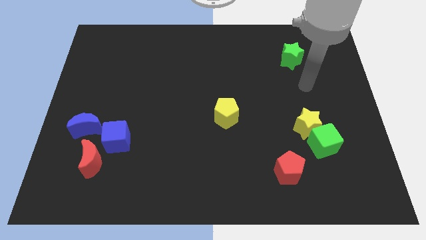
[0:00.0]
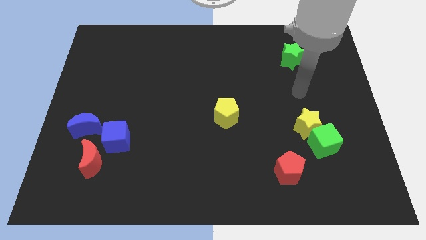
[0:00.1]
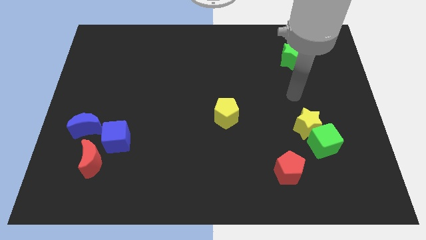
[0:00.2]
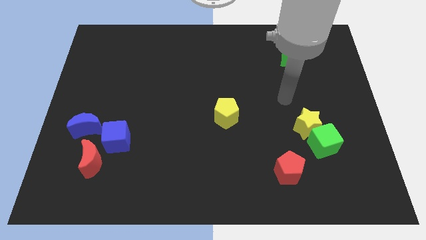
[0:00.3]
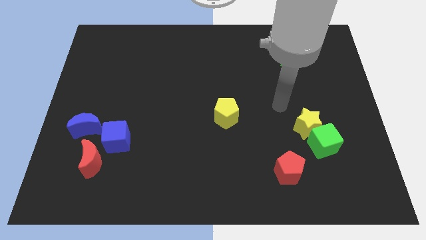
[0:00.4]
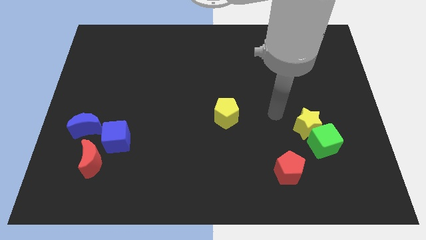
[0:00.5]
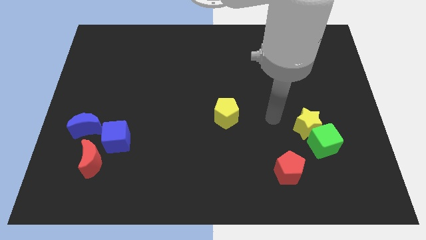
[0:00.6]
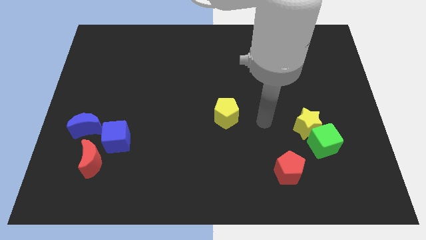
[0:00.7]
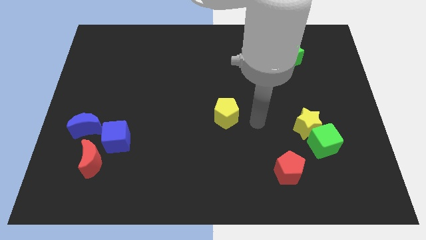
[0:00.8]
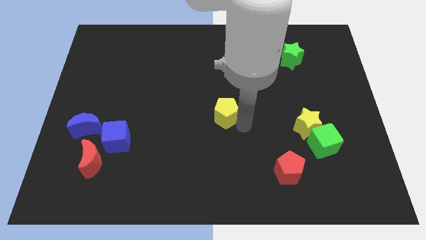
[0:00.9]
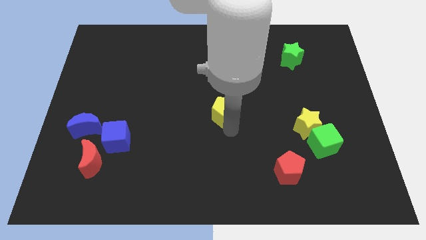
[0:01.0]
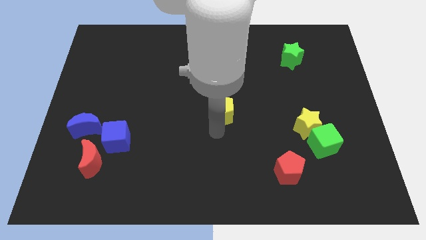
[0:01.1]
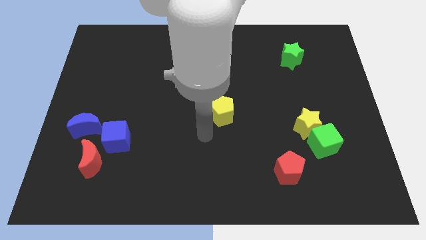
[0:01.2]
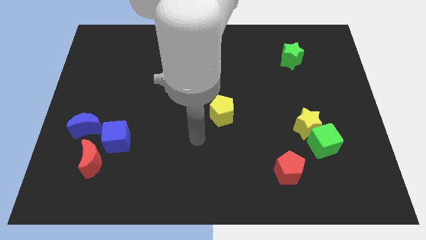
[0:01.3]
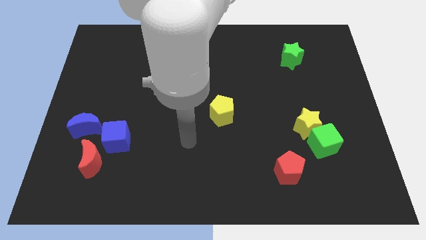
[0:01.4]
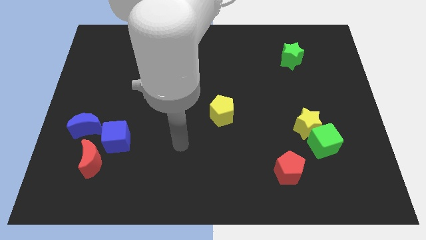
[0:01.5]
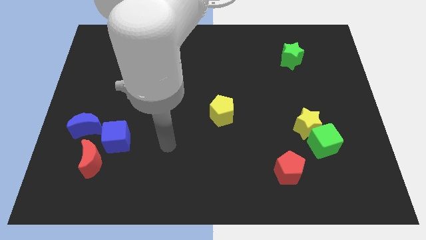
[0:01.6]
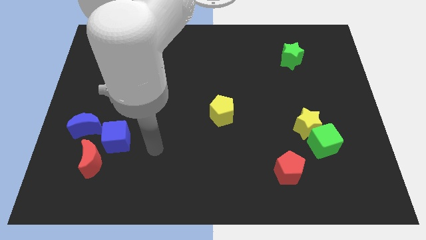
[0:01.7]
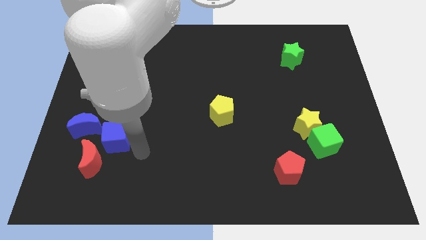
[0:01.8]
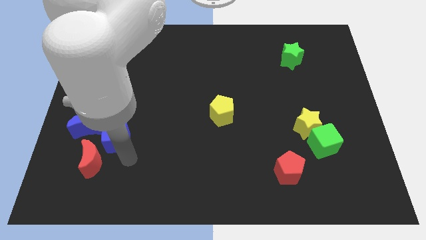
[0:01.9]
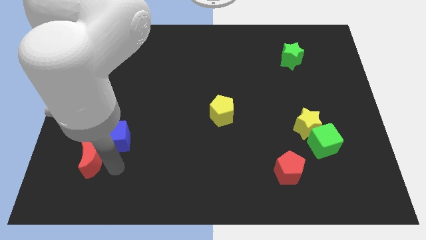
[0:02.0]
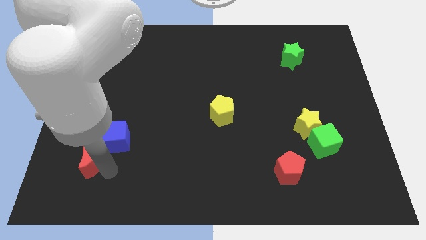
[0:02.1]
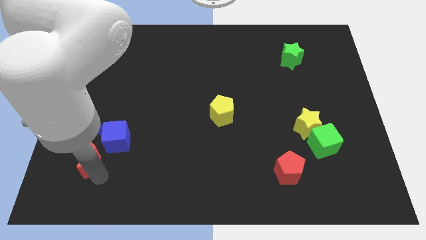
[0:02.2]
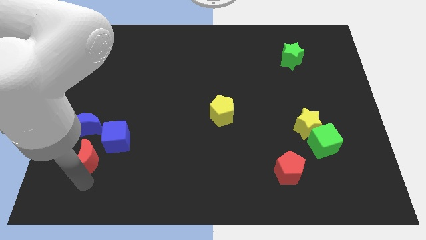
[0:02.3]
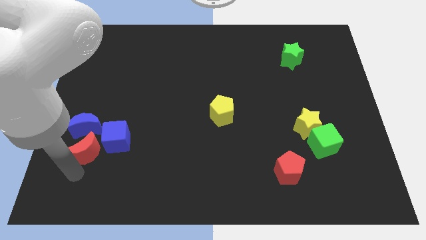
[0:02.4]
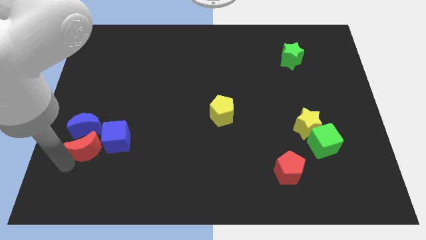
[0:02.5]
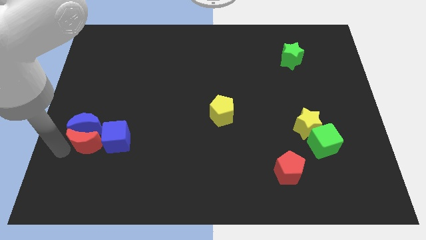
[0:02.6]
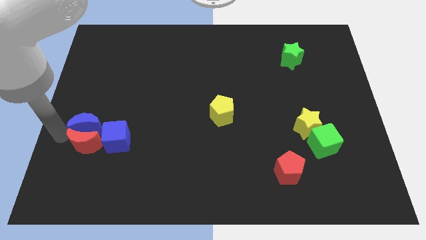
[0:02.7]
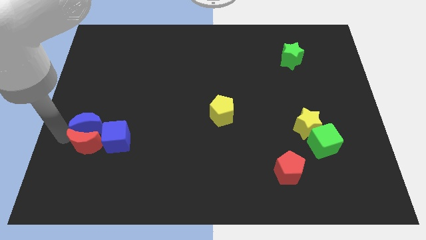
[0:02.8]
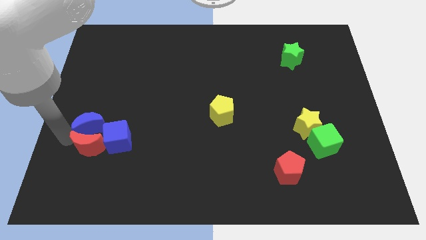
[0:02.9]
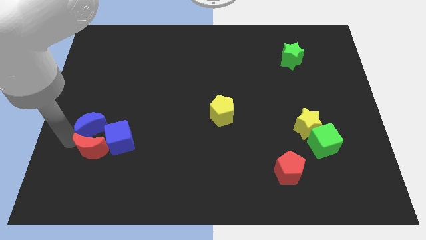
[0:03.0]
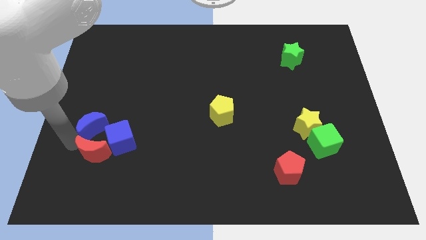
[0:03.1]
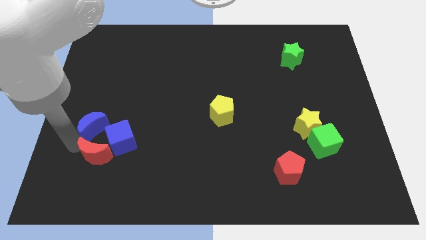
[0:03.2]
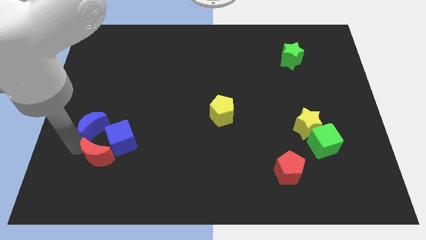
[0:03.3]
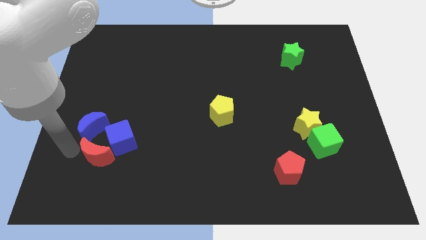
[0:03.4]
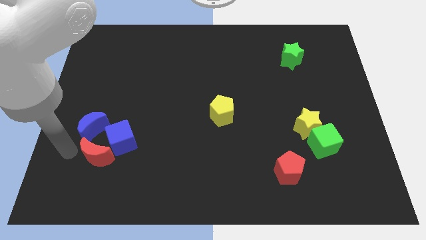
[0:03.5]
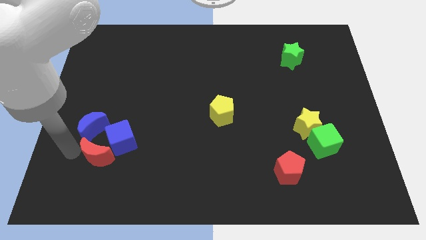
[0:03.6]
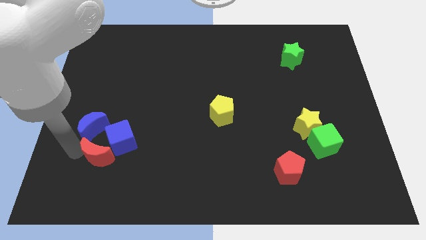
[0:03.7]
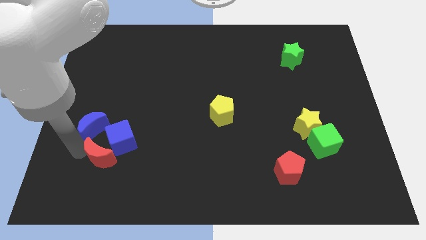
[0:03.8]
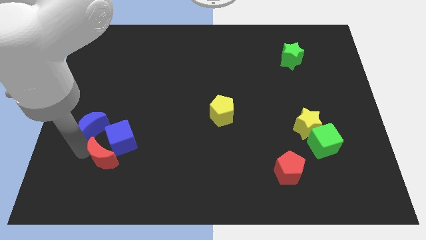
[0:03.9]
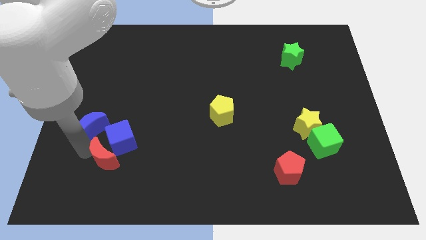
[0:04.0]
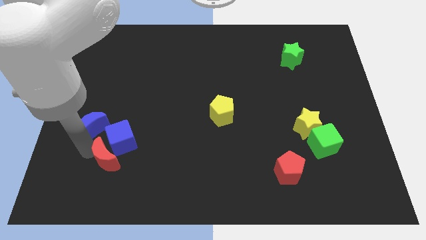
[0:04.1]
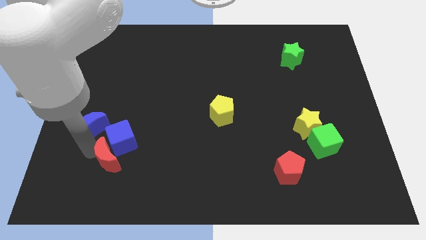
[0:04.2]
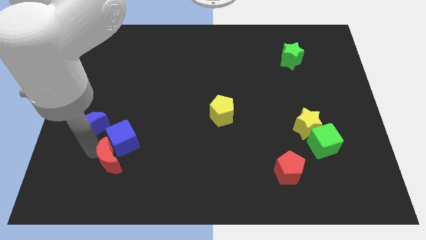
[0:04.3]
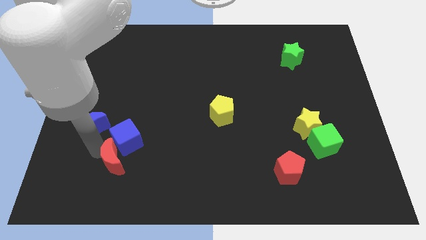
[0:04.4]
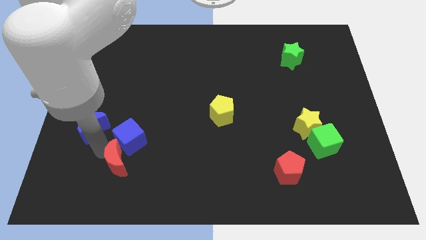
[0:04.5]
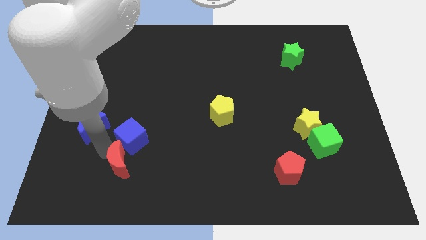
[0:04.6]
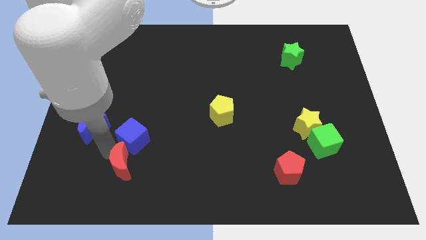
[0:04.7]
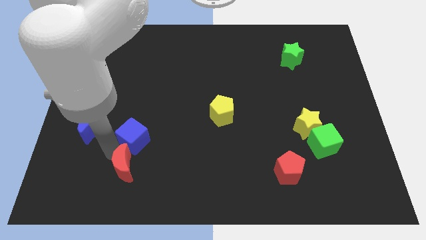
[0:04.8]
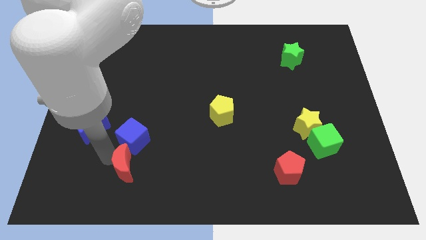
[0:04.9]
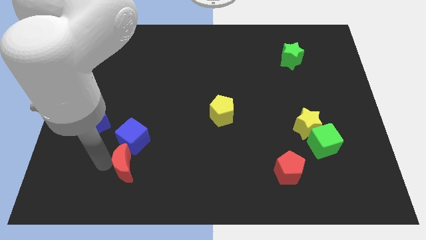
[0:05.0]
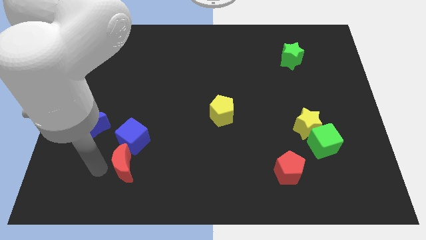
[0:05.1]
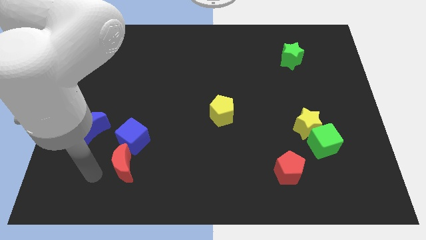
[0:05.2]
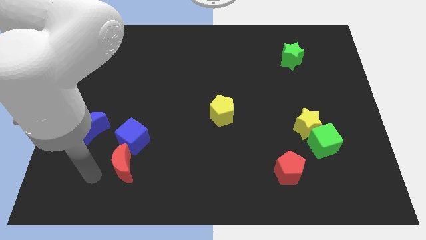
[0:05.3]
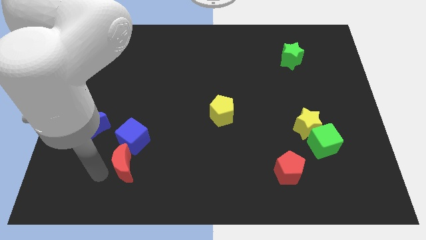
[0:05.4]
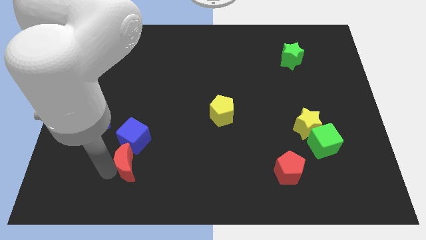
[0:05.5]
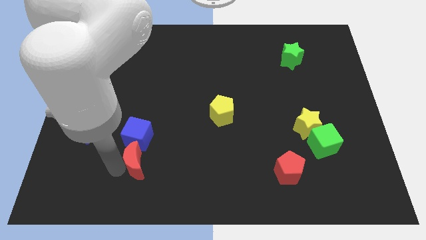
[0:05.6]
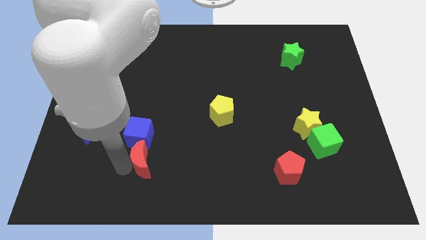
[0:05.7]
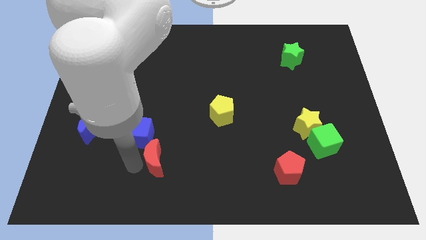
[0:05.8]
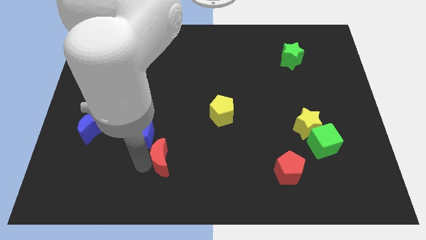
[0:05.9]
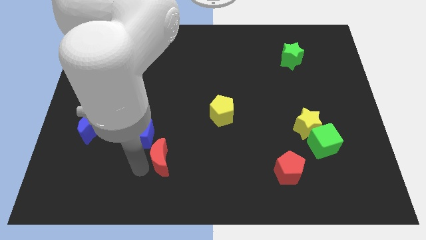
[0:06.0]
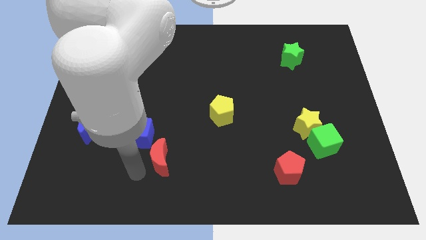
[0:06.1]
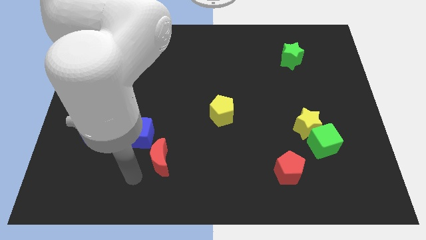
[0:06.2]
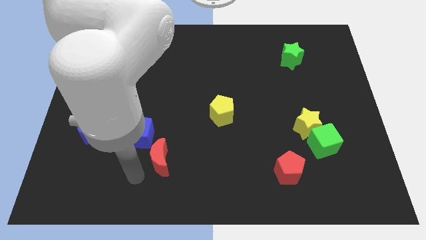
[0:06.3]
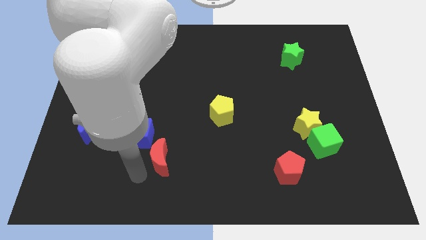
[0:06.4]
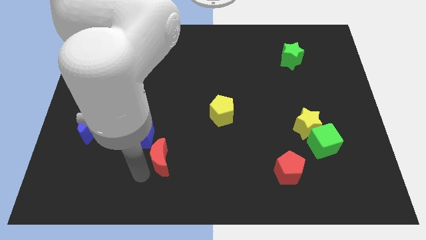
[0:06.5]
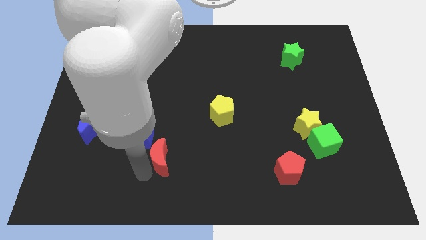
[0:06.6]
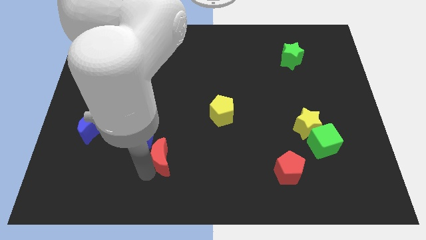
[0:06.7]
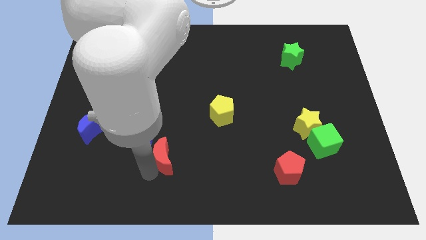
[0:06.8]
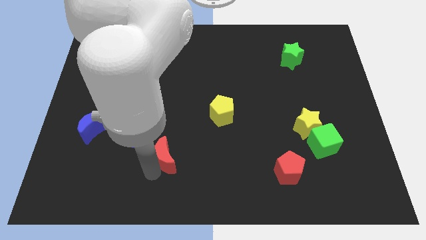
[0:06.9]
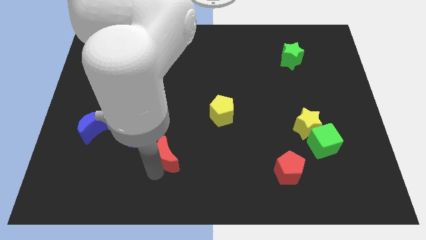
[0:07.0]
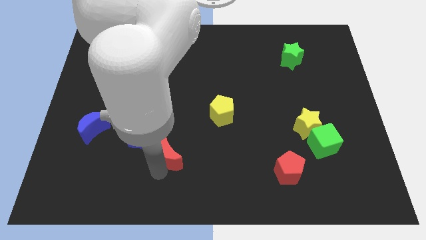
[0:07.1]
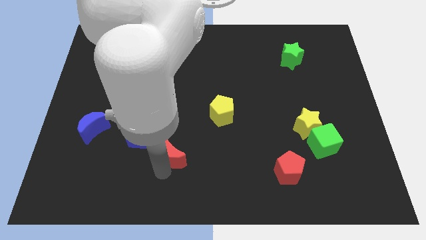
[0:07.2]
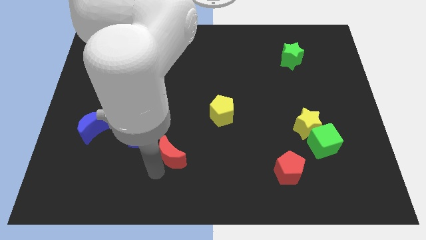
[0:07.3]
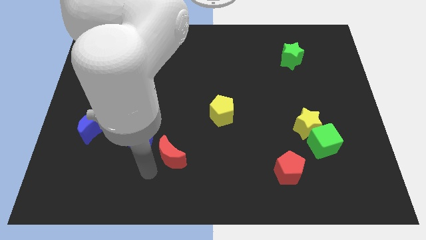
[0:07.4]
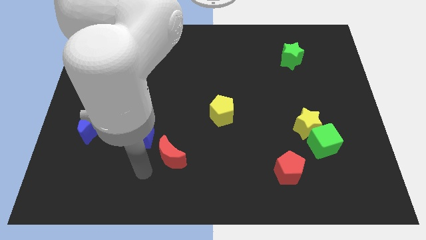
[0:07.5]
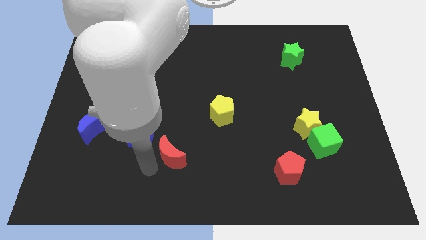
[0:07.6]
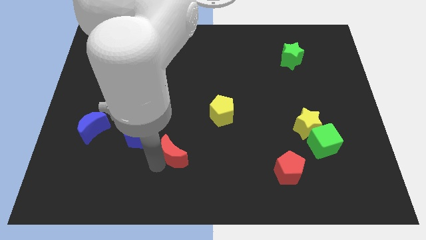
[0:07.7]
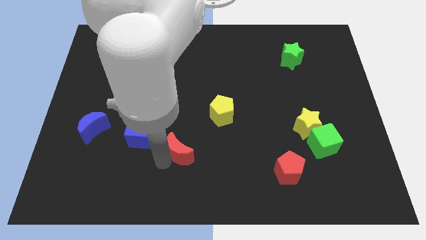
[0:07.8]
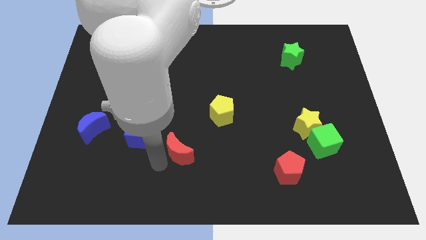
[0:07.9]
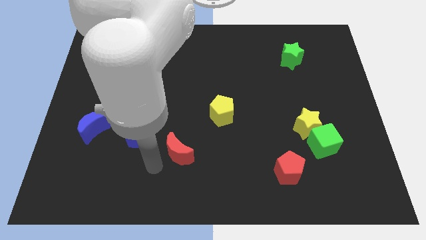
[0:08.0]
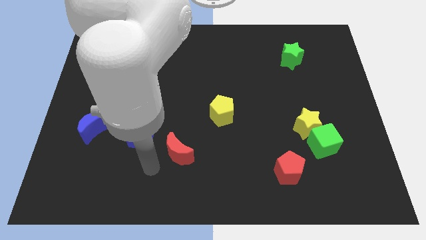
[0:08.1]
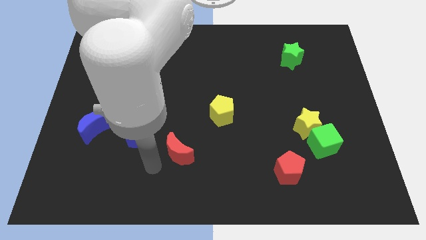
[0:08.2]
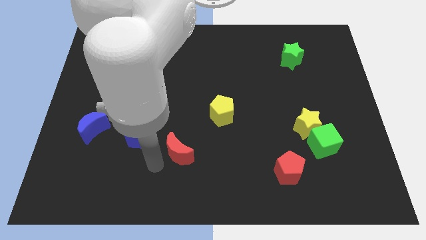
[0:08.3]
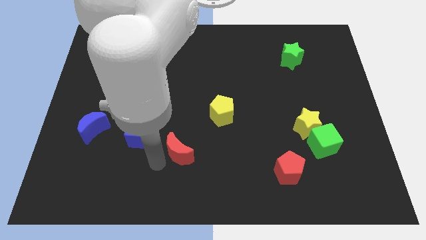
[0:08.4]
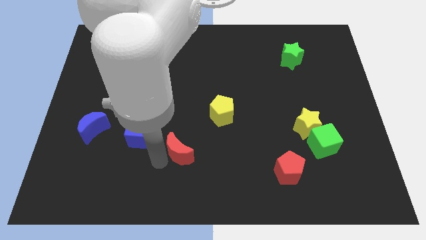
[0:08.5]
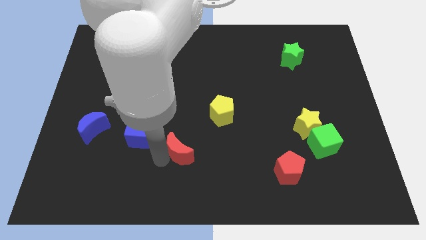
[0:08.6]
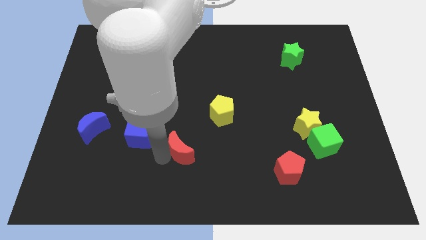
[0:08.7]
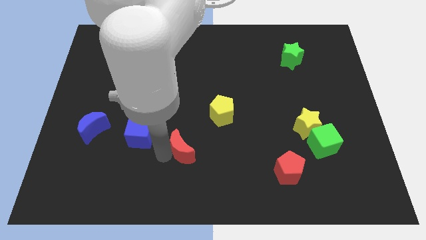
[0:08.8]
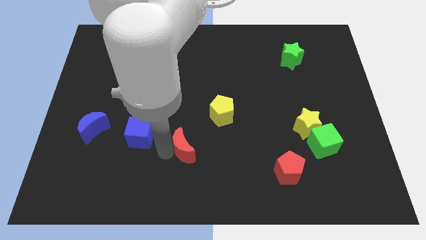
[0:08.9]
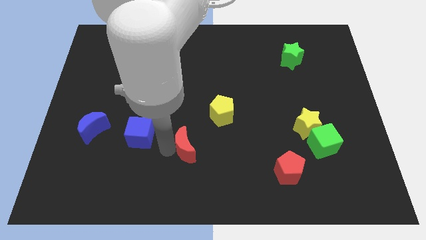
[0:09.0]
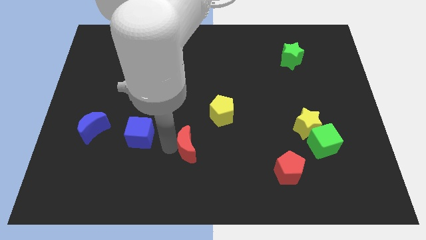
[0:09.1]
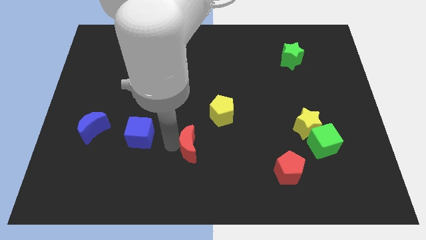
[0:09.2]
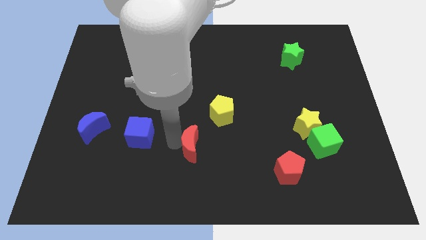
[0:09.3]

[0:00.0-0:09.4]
slide the red moon right
